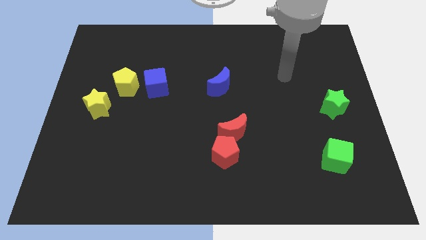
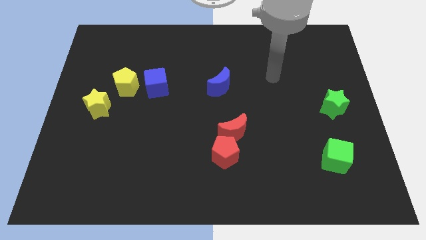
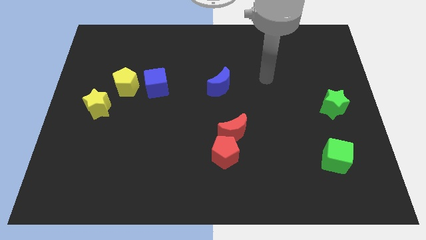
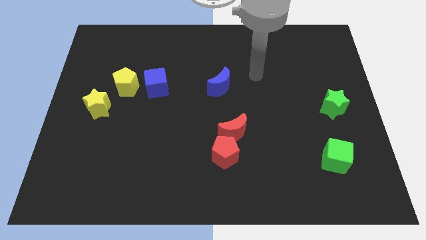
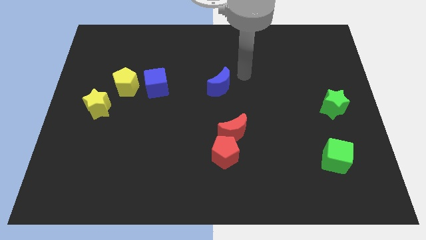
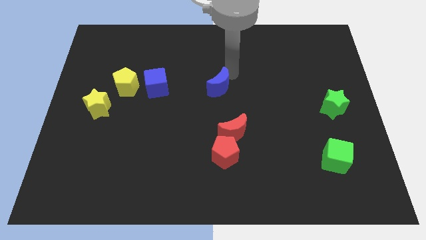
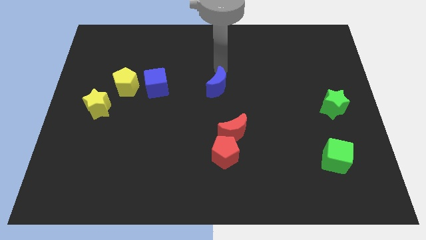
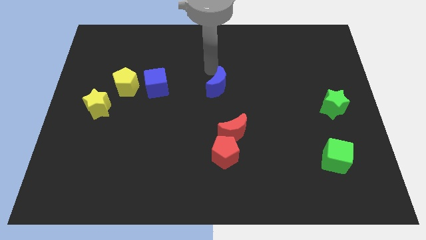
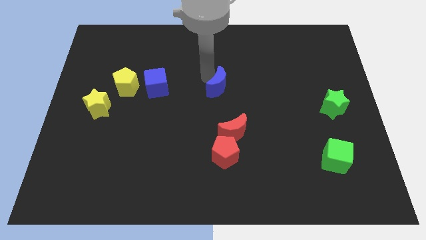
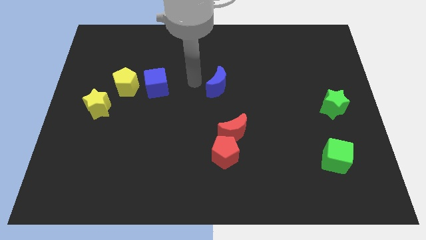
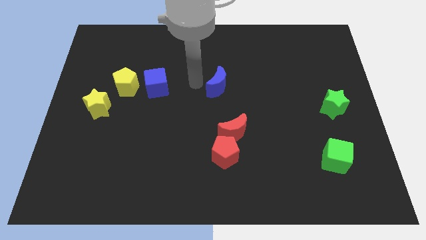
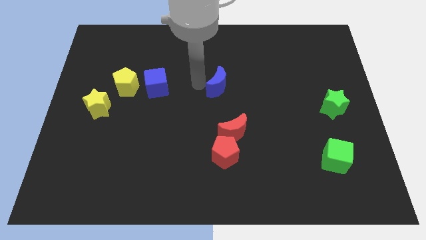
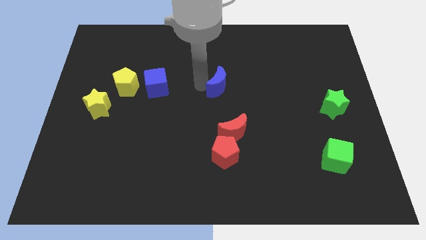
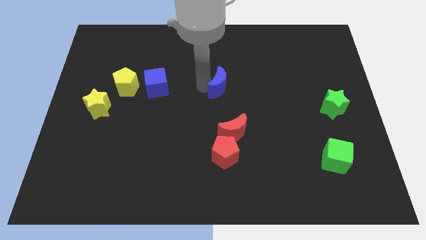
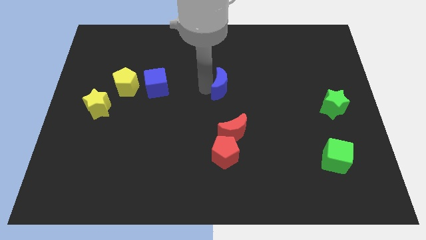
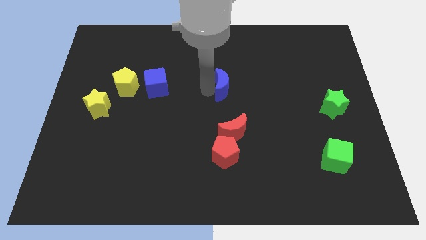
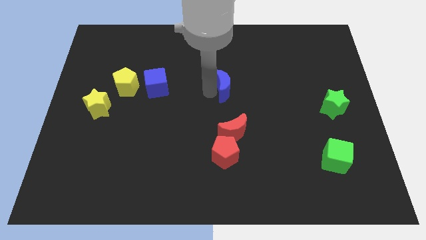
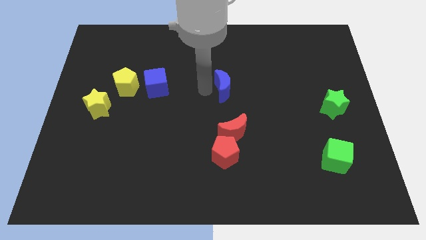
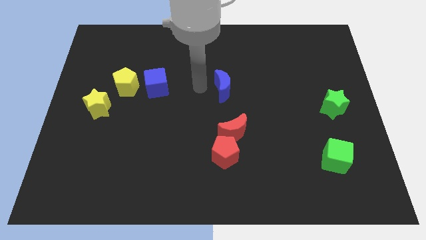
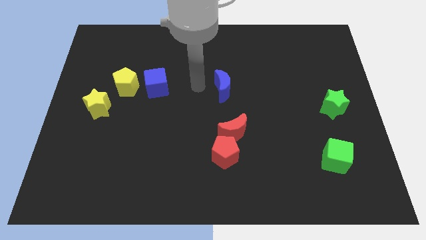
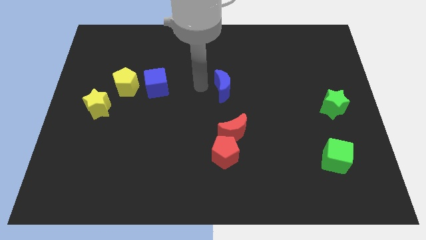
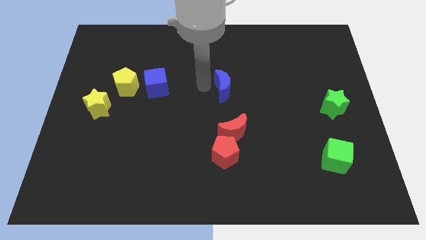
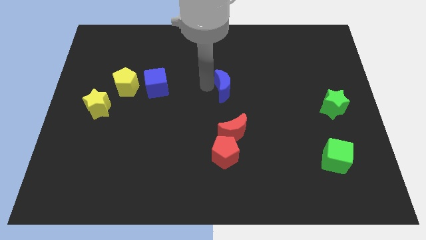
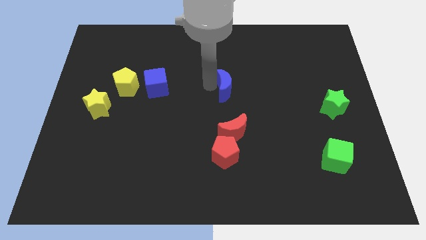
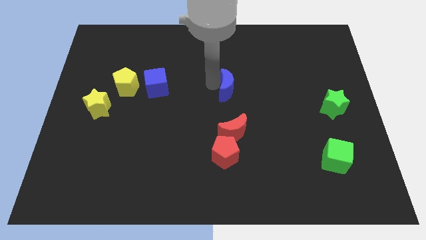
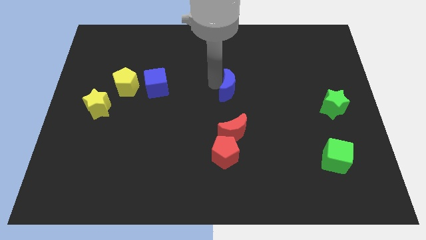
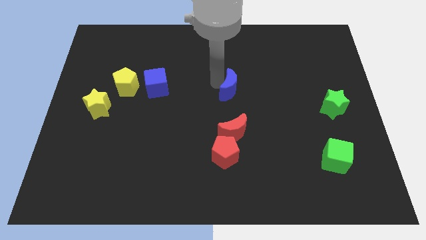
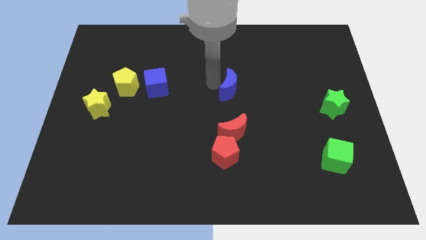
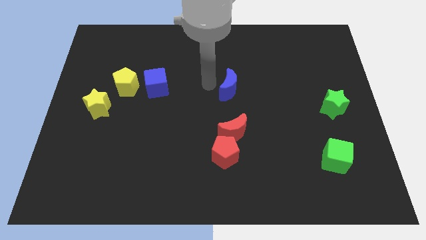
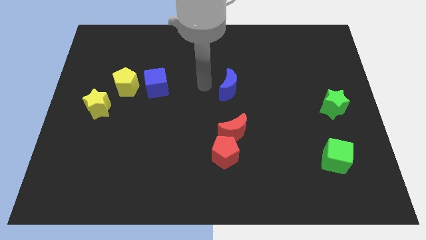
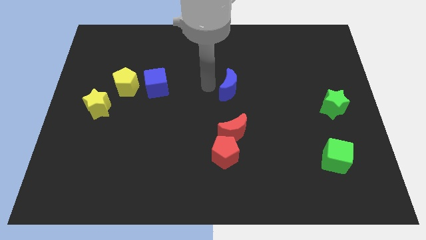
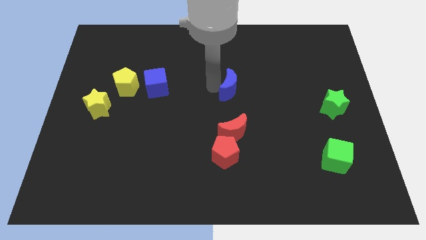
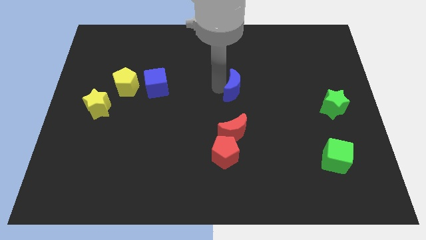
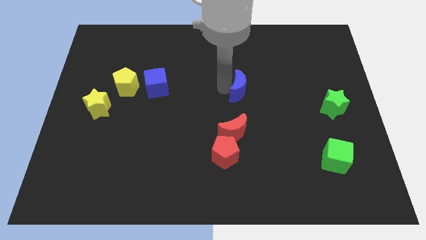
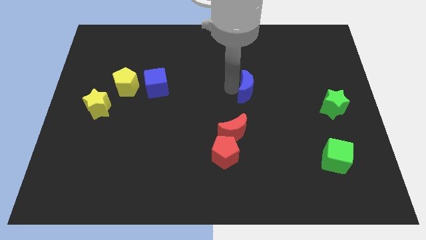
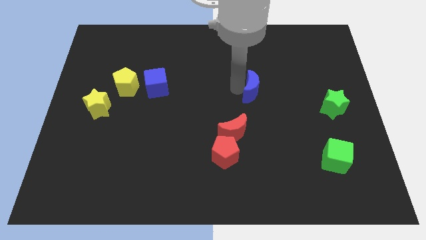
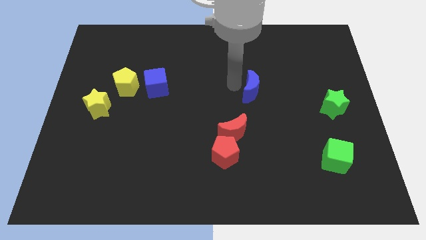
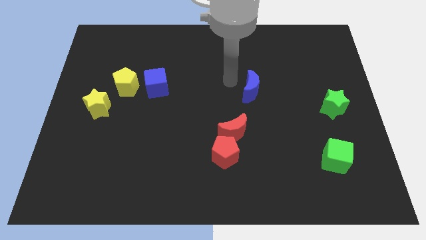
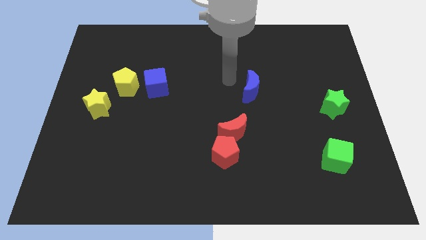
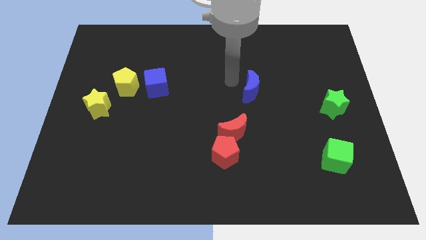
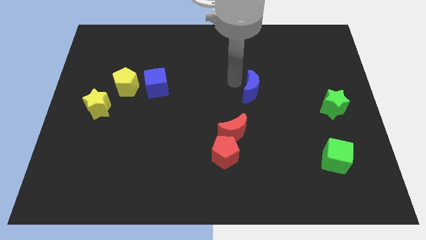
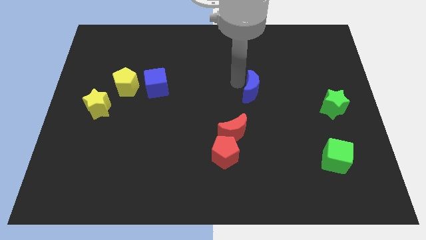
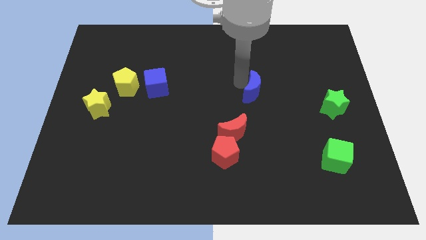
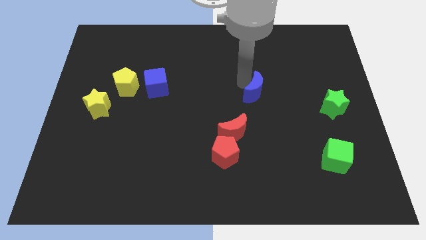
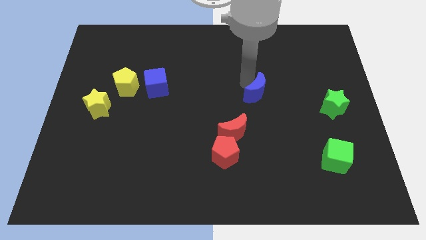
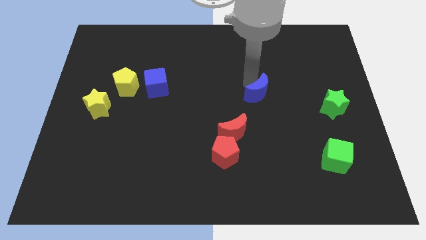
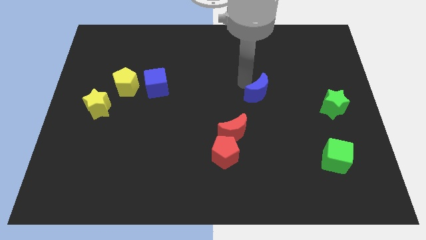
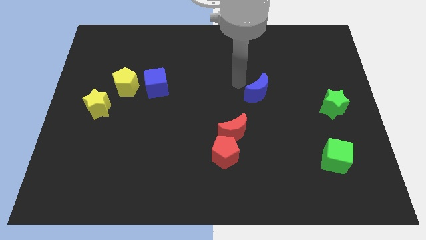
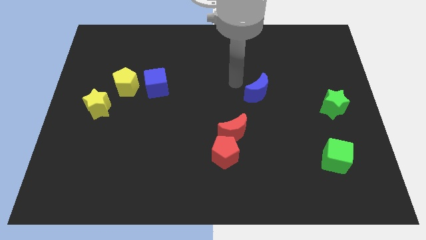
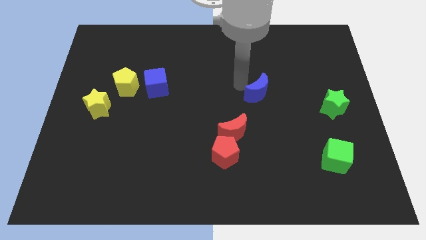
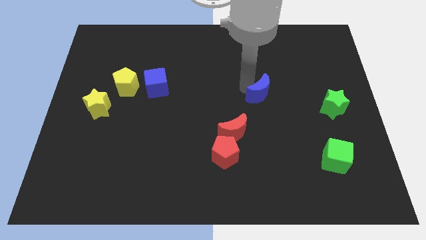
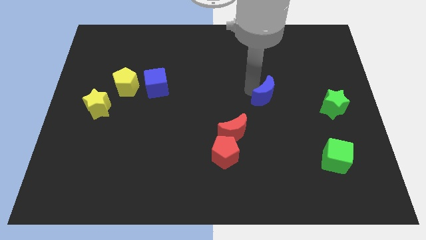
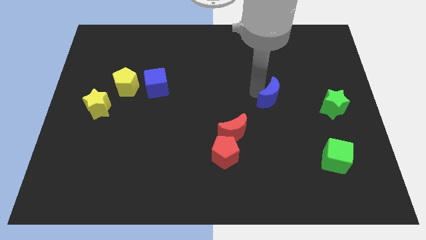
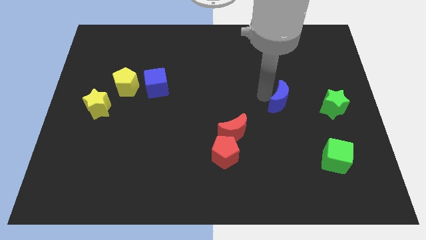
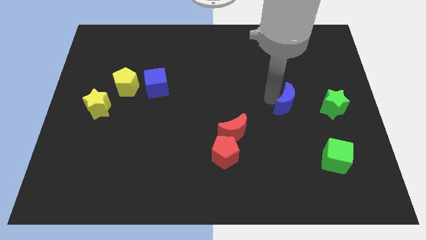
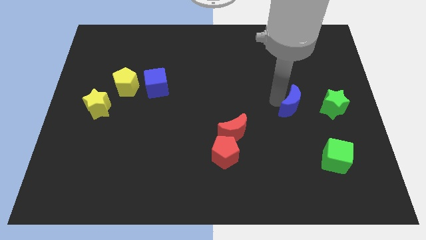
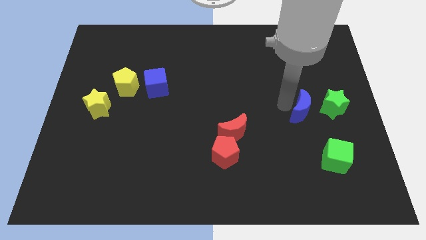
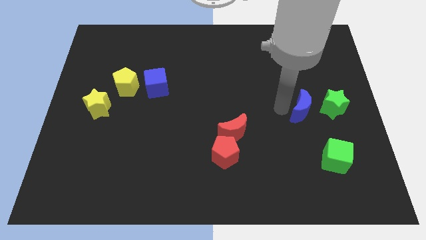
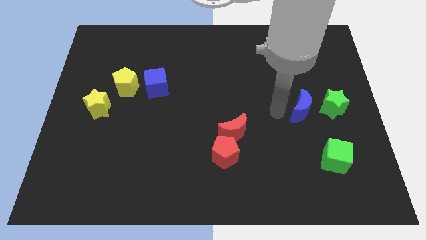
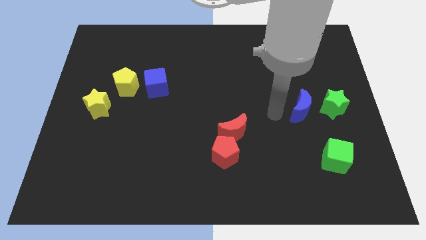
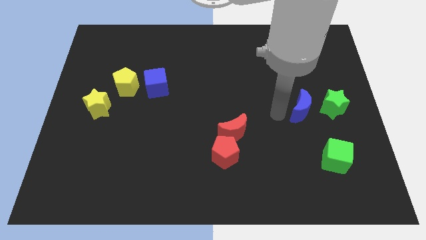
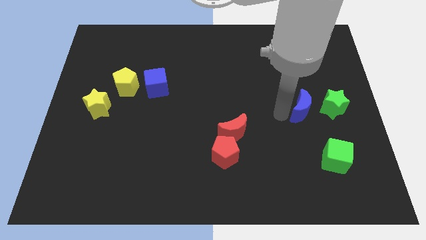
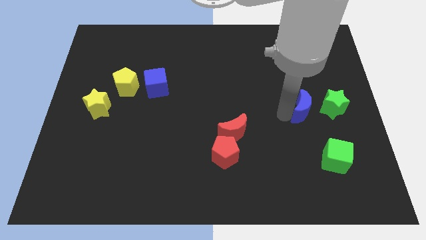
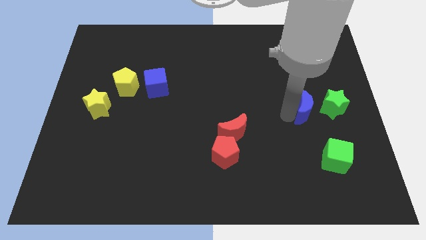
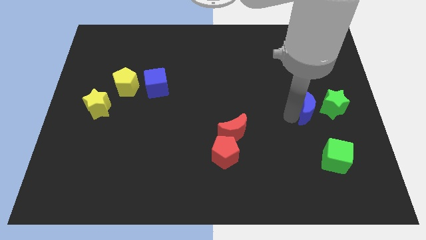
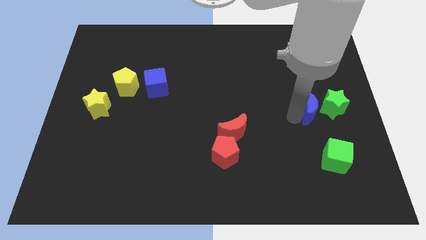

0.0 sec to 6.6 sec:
push the blue moon next to the green star
